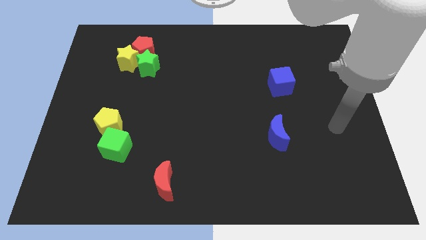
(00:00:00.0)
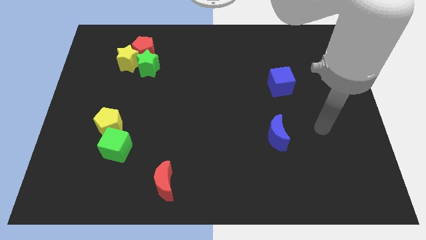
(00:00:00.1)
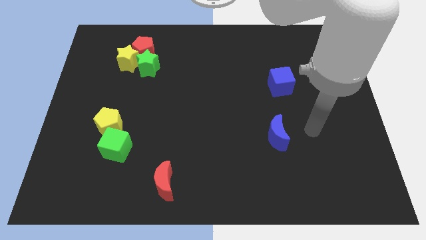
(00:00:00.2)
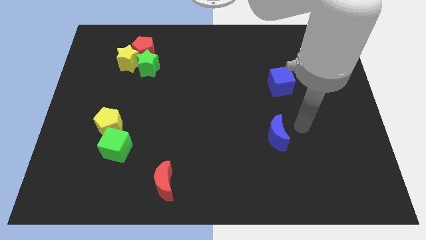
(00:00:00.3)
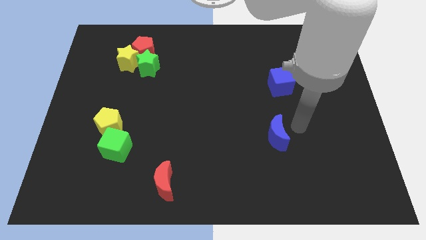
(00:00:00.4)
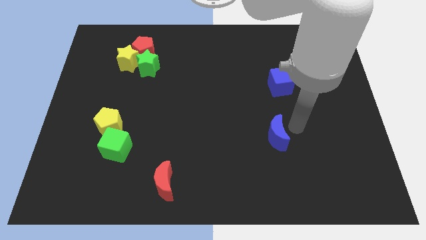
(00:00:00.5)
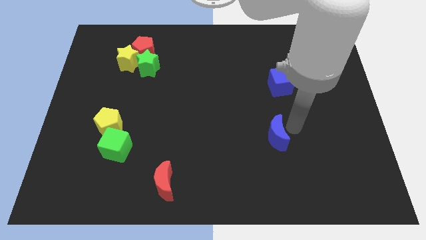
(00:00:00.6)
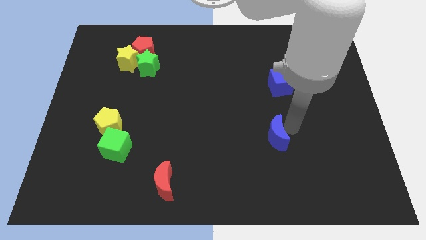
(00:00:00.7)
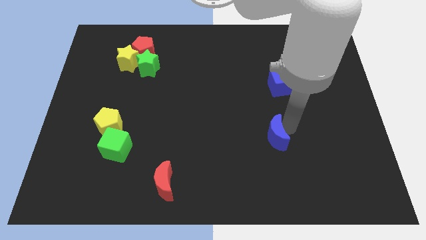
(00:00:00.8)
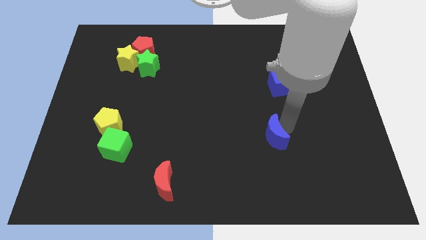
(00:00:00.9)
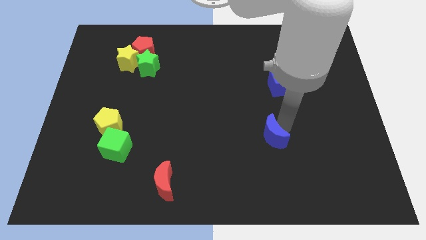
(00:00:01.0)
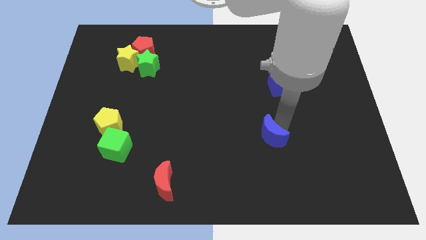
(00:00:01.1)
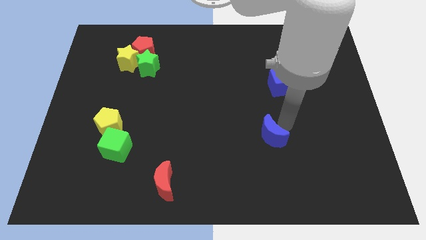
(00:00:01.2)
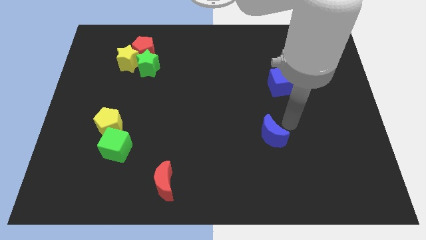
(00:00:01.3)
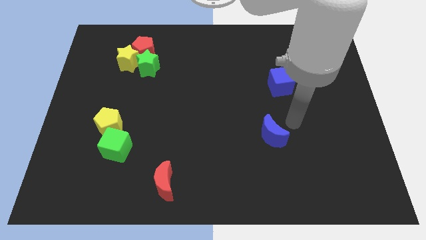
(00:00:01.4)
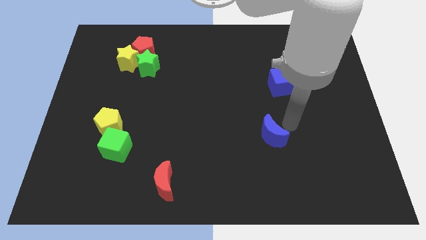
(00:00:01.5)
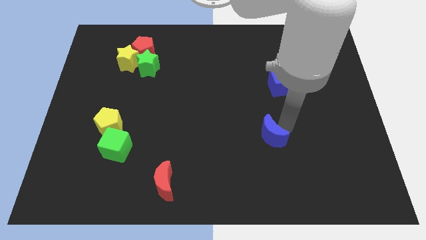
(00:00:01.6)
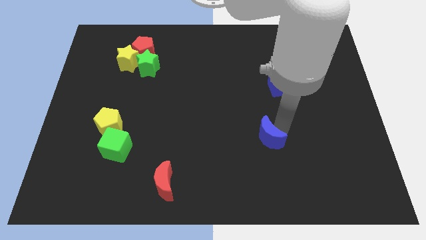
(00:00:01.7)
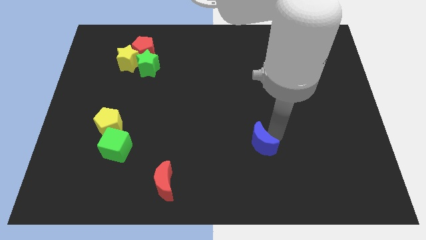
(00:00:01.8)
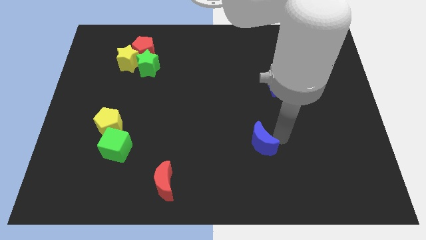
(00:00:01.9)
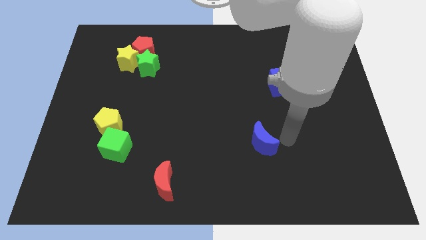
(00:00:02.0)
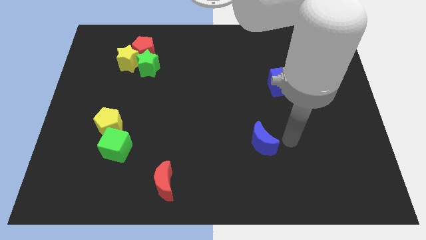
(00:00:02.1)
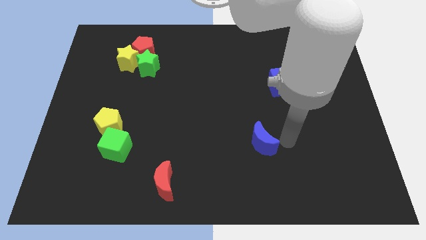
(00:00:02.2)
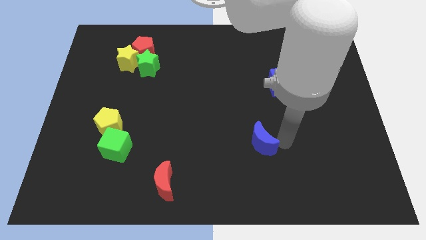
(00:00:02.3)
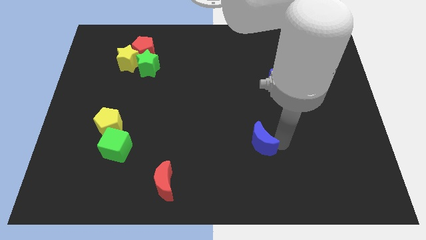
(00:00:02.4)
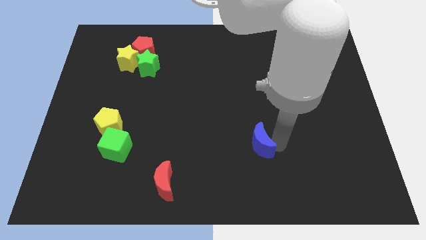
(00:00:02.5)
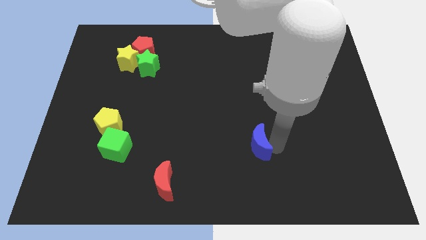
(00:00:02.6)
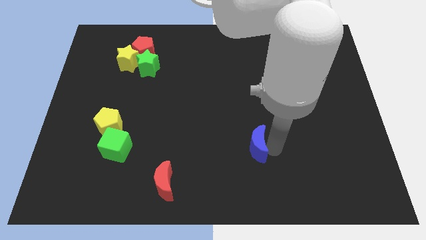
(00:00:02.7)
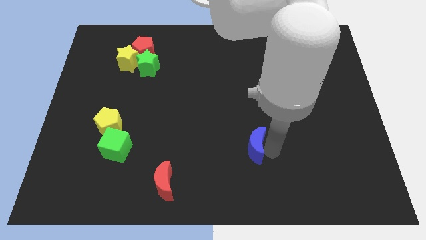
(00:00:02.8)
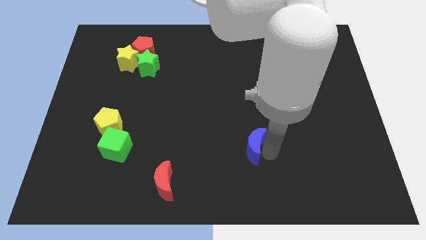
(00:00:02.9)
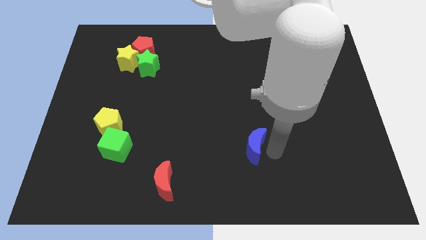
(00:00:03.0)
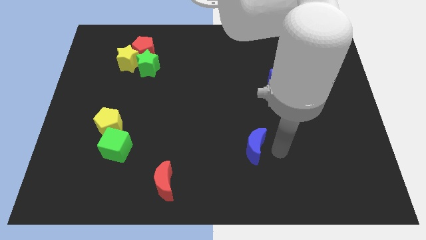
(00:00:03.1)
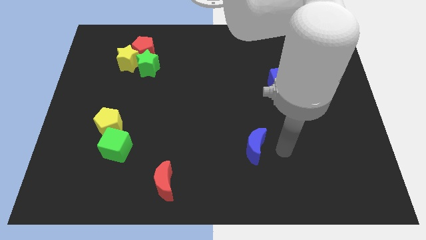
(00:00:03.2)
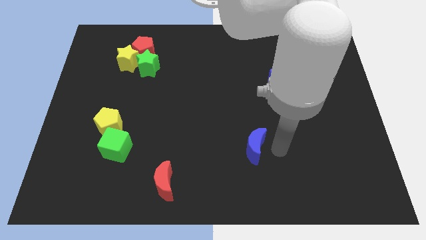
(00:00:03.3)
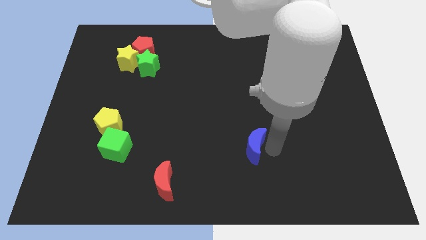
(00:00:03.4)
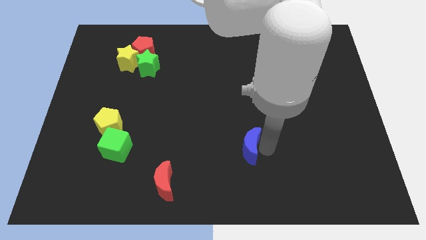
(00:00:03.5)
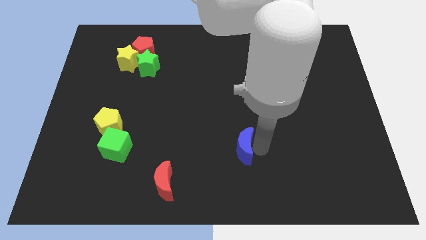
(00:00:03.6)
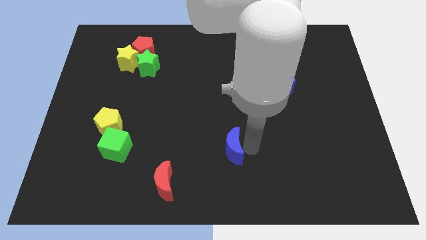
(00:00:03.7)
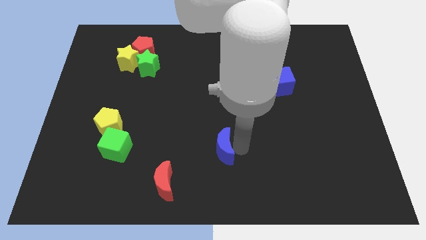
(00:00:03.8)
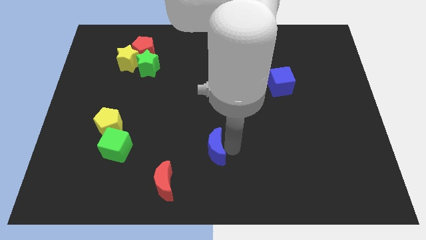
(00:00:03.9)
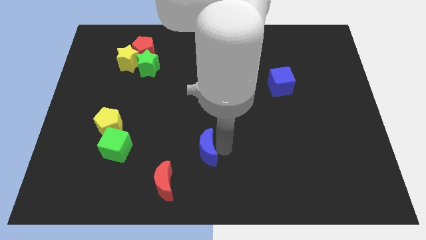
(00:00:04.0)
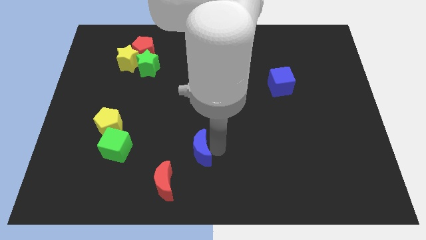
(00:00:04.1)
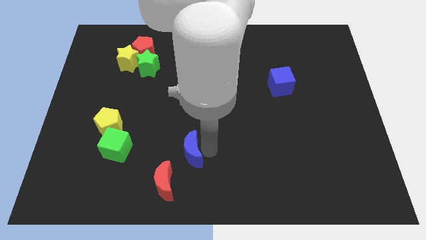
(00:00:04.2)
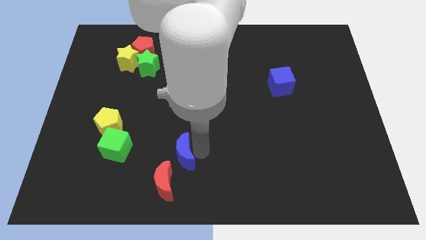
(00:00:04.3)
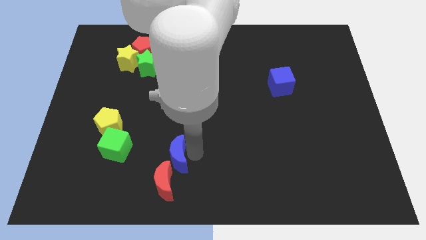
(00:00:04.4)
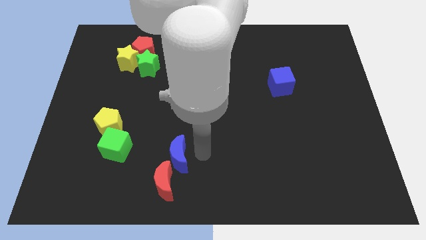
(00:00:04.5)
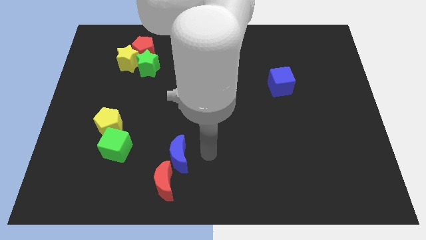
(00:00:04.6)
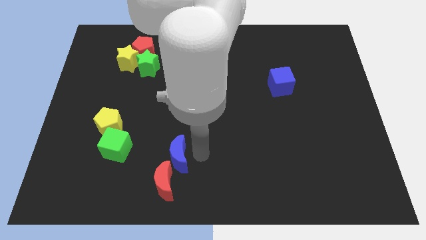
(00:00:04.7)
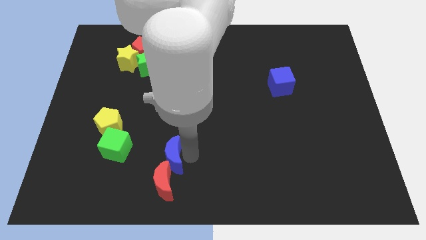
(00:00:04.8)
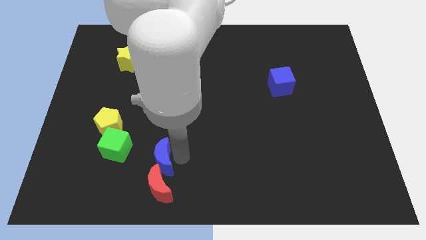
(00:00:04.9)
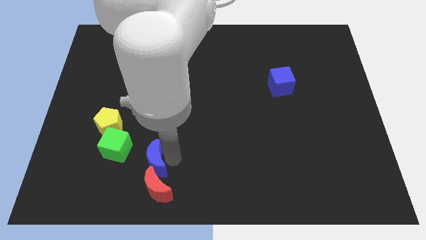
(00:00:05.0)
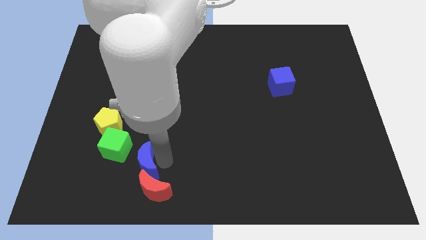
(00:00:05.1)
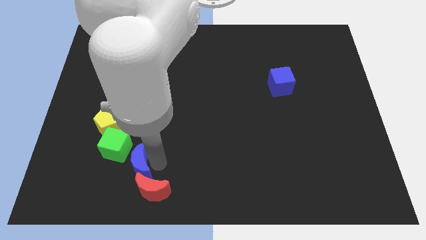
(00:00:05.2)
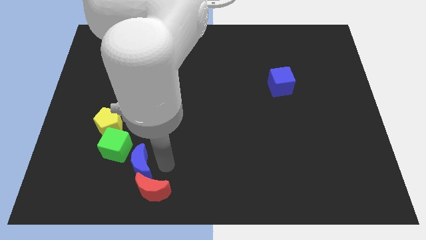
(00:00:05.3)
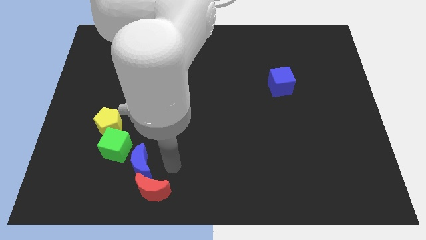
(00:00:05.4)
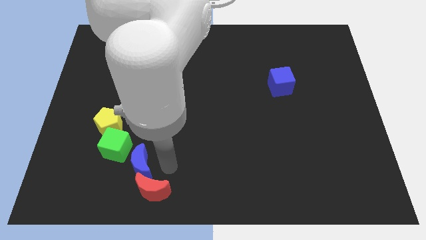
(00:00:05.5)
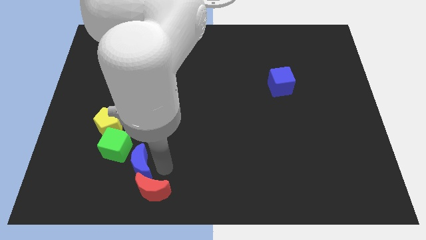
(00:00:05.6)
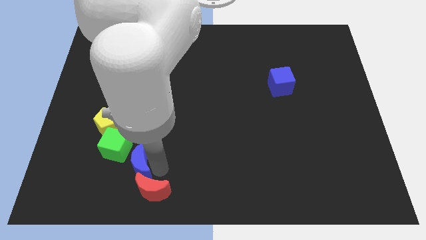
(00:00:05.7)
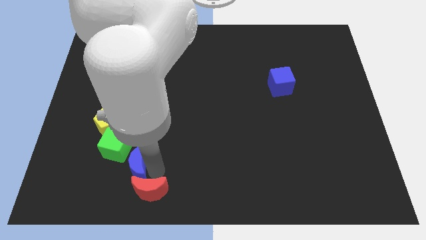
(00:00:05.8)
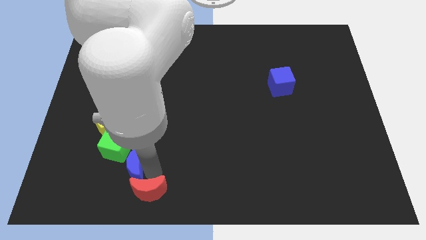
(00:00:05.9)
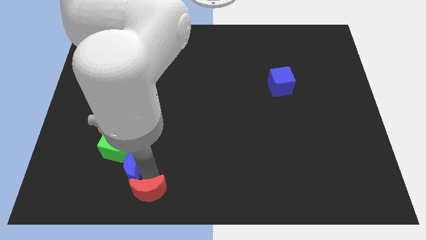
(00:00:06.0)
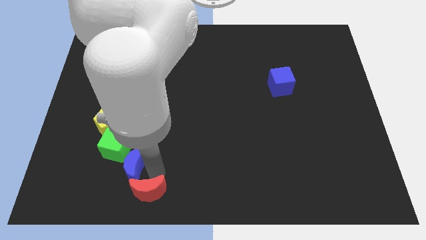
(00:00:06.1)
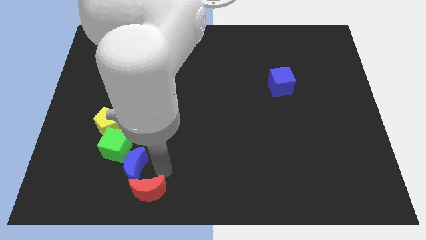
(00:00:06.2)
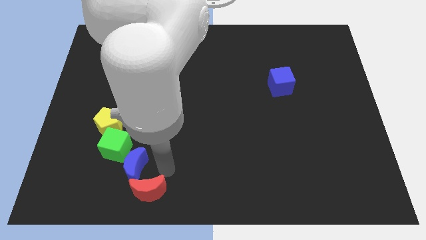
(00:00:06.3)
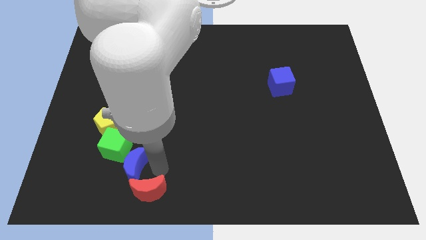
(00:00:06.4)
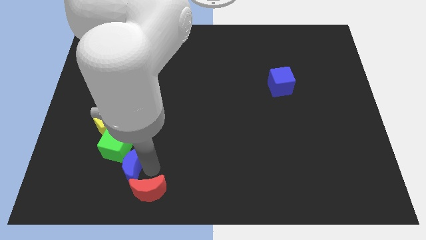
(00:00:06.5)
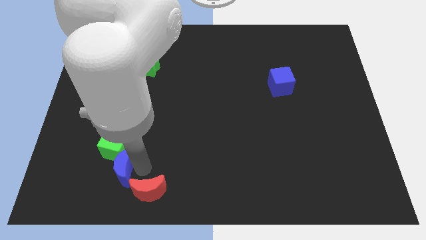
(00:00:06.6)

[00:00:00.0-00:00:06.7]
slide the blue moon below the yellow pentagon

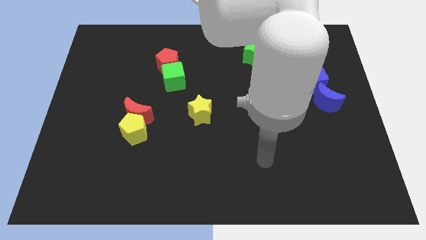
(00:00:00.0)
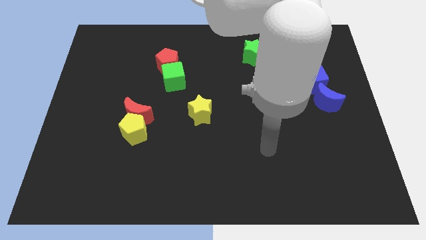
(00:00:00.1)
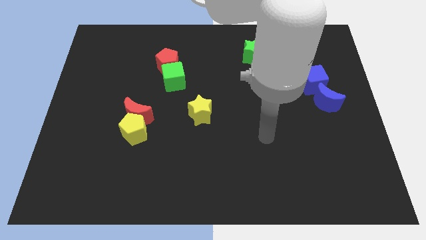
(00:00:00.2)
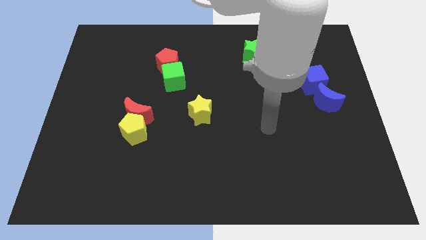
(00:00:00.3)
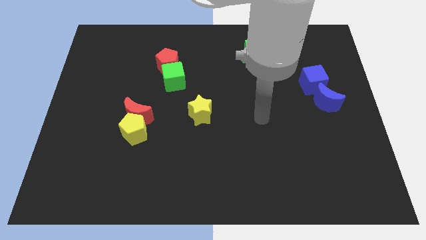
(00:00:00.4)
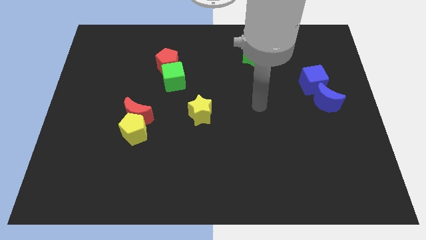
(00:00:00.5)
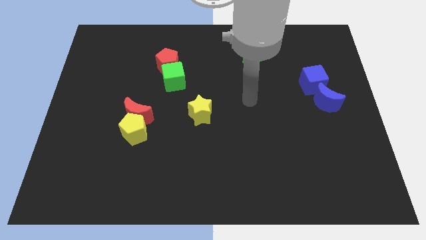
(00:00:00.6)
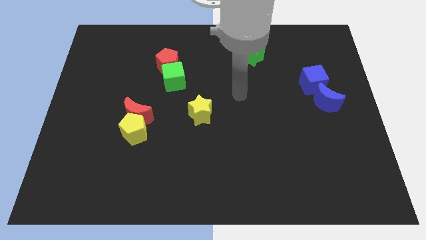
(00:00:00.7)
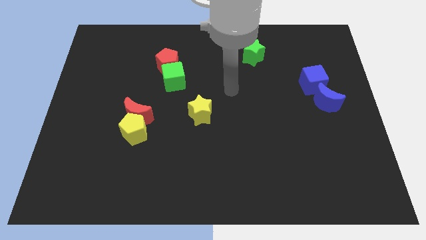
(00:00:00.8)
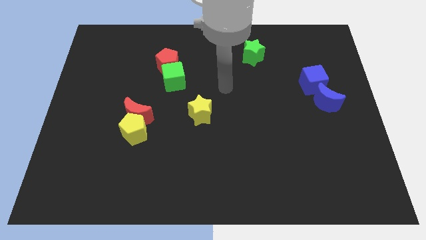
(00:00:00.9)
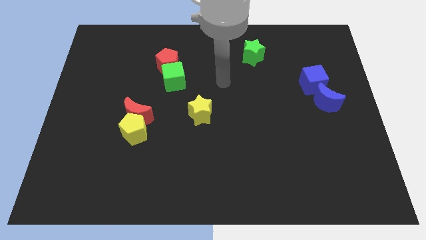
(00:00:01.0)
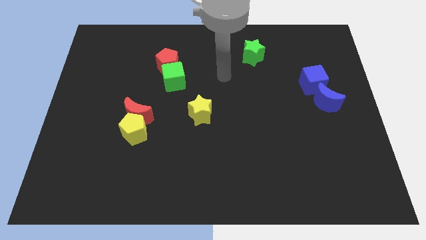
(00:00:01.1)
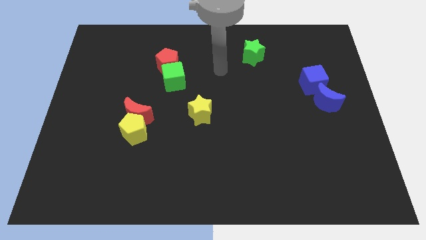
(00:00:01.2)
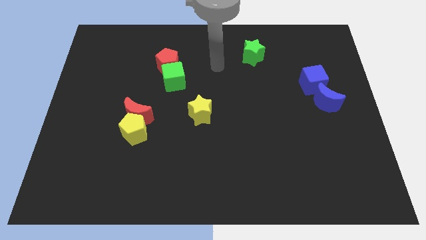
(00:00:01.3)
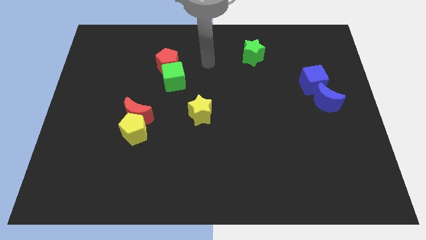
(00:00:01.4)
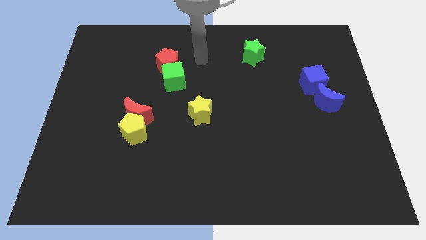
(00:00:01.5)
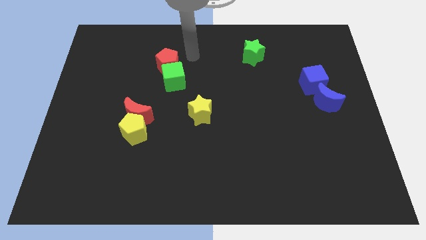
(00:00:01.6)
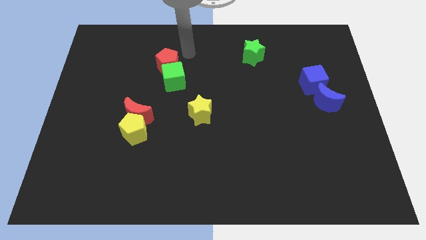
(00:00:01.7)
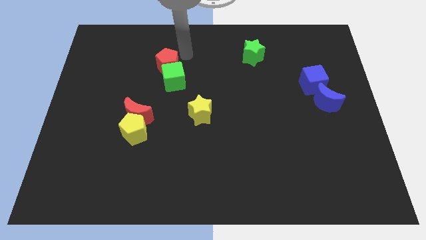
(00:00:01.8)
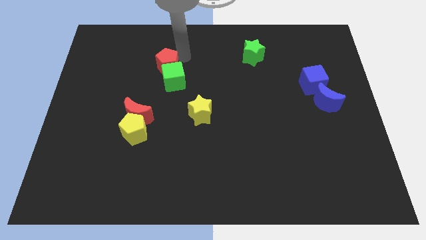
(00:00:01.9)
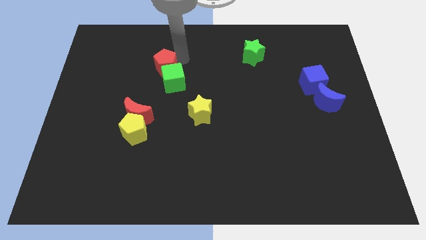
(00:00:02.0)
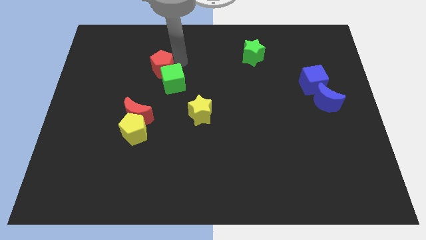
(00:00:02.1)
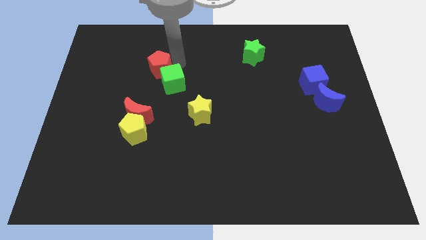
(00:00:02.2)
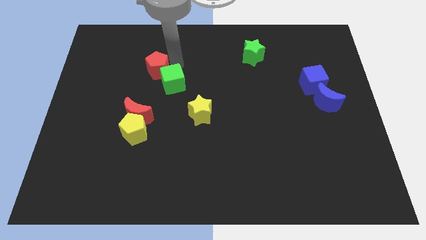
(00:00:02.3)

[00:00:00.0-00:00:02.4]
put the red pentagon to the top of the red moon
